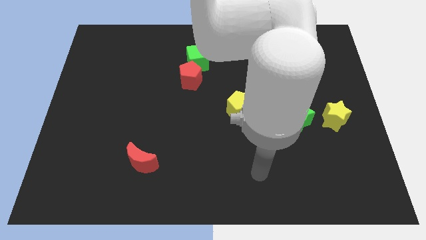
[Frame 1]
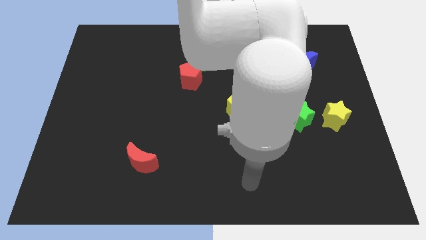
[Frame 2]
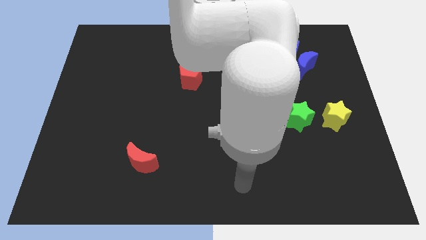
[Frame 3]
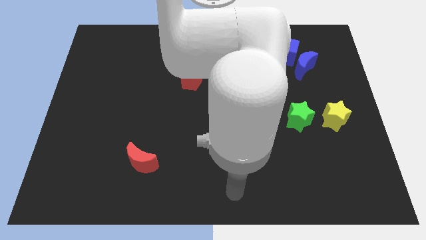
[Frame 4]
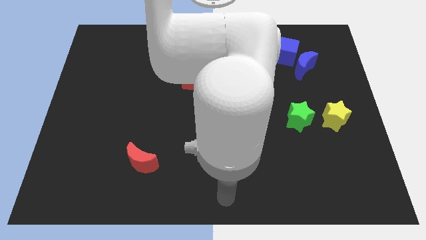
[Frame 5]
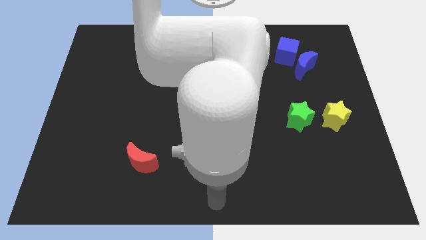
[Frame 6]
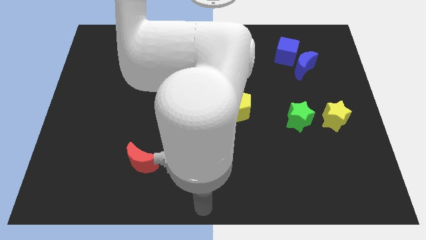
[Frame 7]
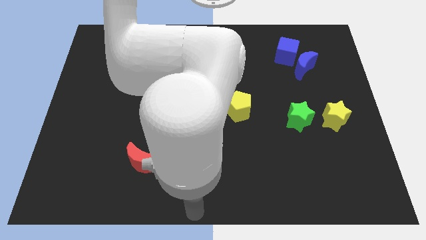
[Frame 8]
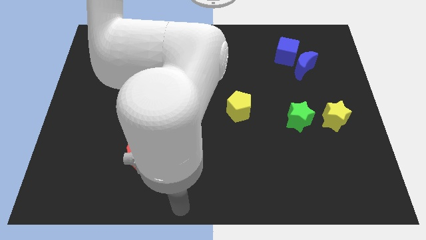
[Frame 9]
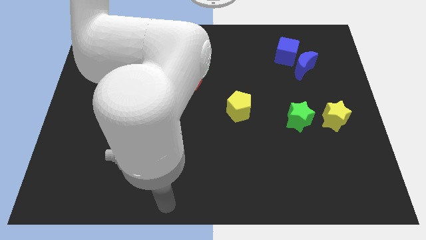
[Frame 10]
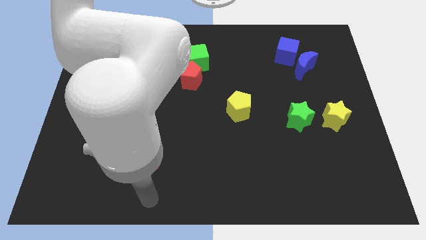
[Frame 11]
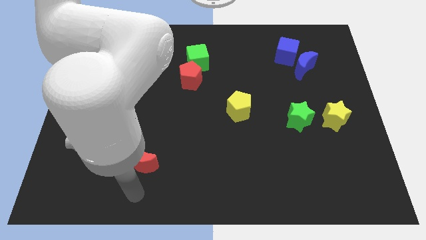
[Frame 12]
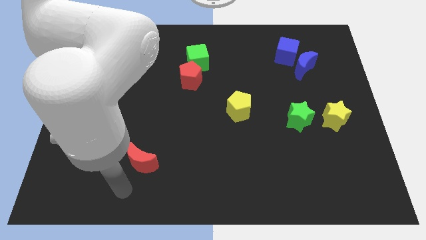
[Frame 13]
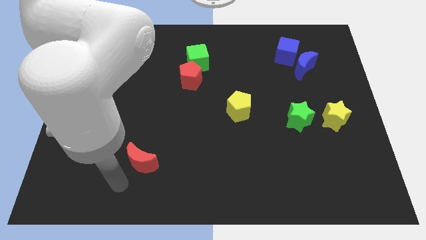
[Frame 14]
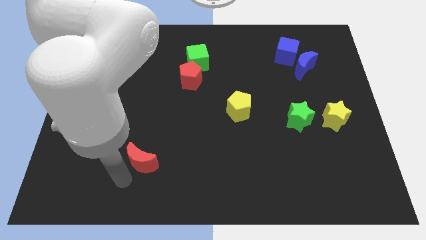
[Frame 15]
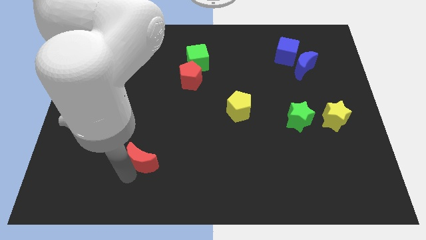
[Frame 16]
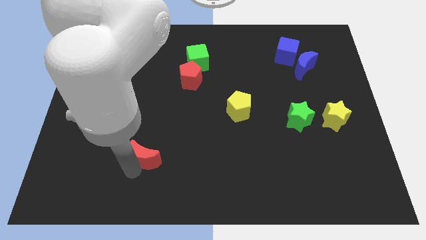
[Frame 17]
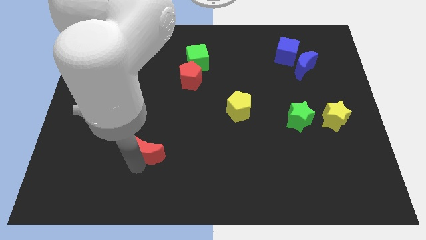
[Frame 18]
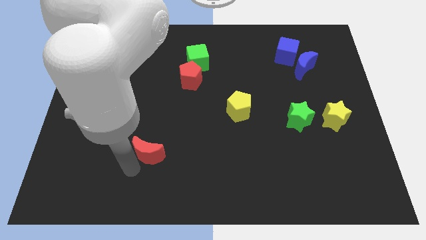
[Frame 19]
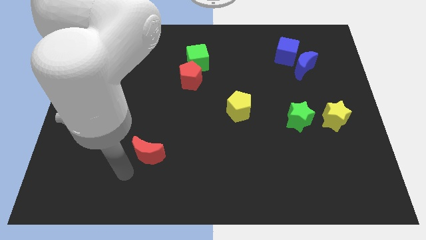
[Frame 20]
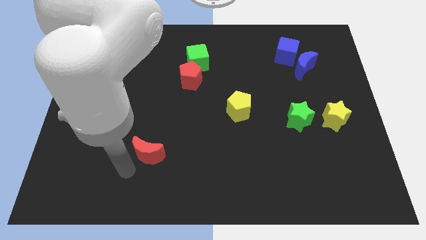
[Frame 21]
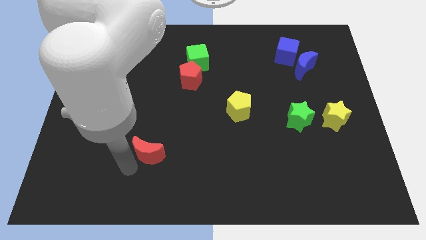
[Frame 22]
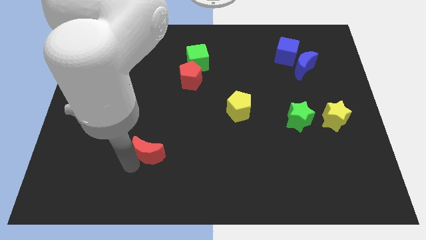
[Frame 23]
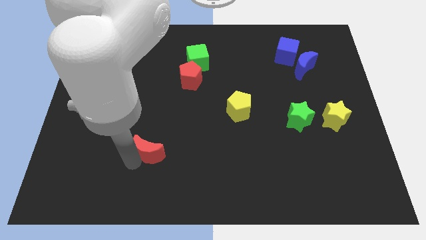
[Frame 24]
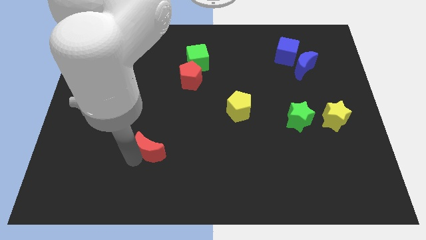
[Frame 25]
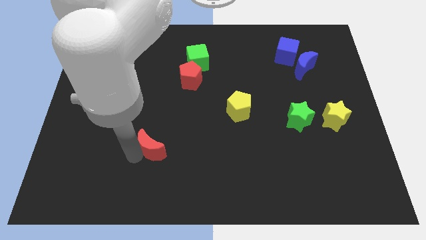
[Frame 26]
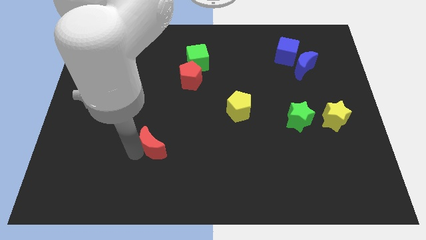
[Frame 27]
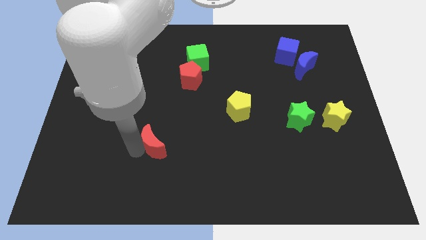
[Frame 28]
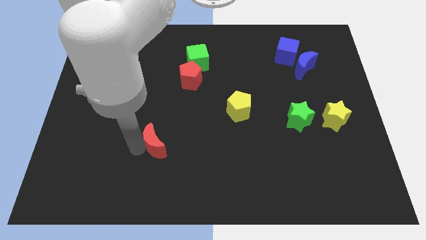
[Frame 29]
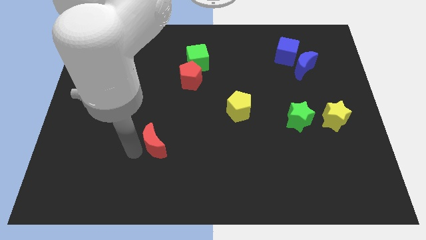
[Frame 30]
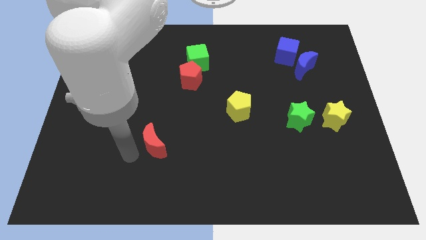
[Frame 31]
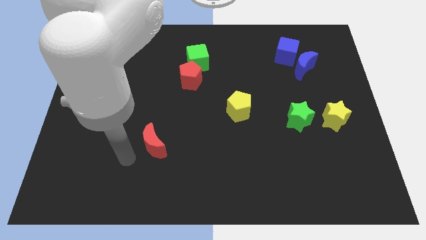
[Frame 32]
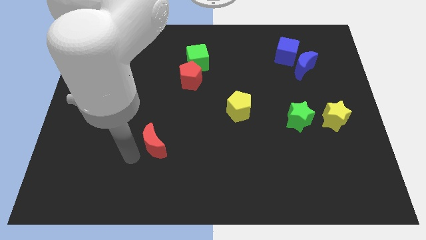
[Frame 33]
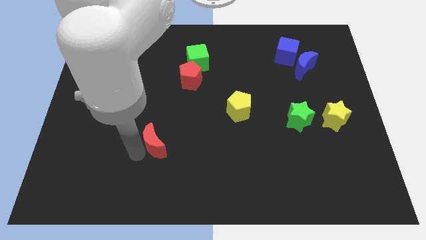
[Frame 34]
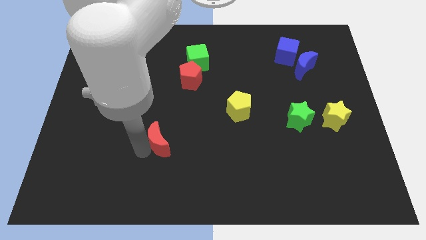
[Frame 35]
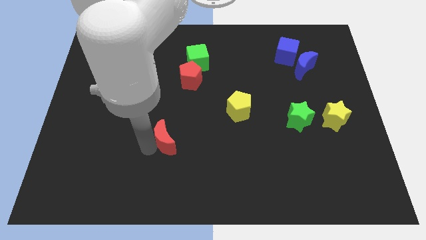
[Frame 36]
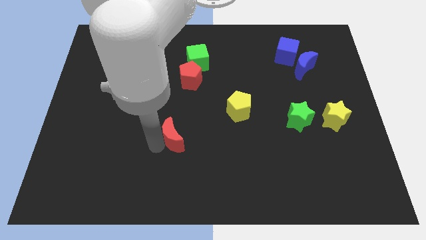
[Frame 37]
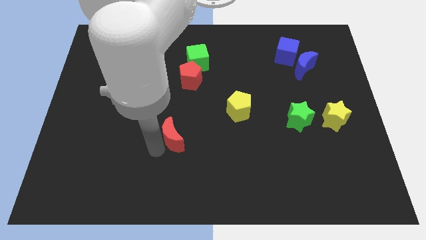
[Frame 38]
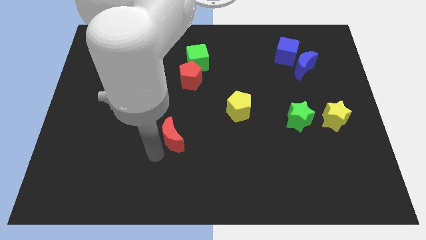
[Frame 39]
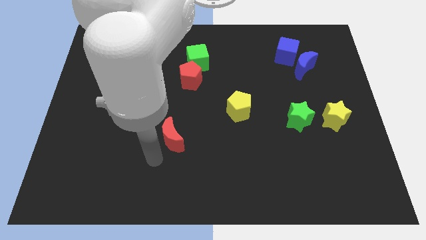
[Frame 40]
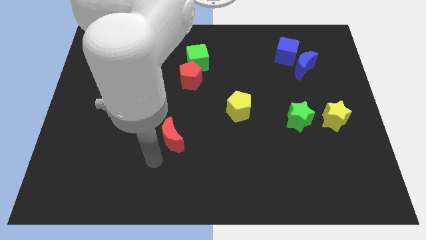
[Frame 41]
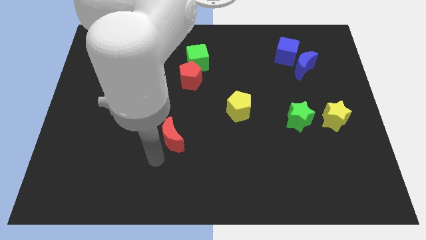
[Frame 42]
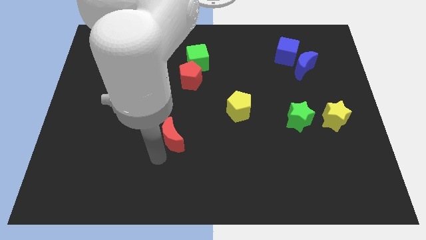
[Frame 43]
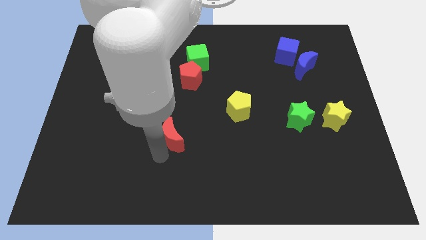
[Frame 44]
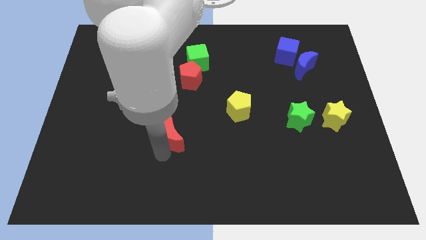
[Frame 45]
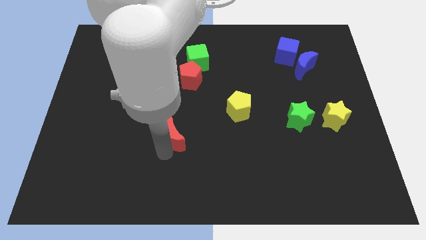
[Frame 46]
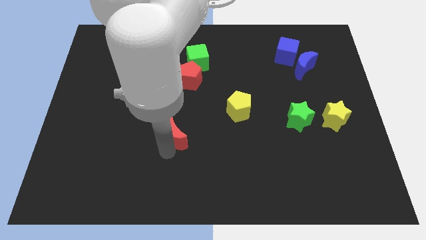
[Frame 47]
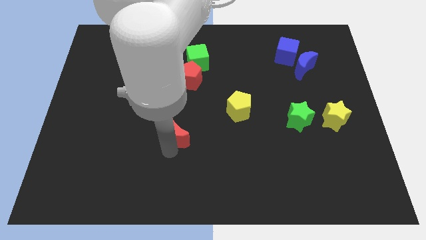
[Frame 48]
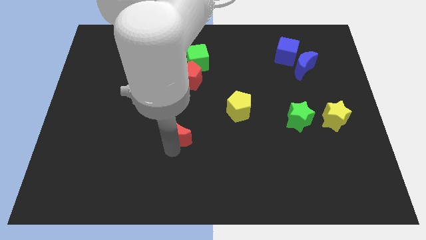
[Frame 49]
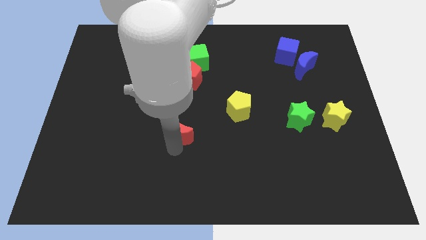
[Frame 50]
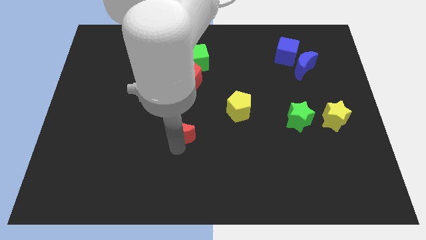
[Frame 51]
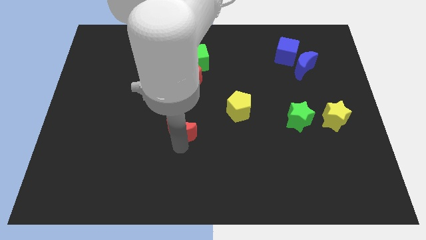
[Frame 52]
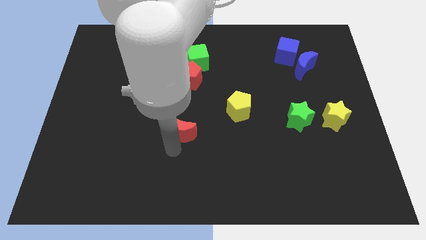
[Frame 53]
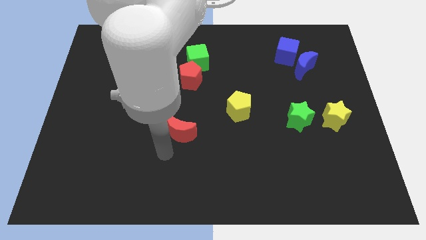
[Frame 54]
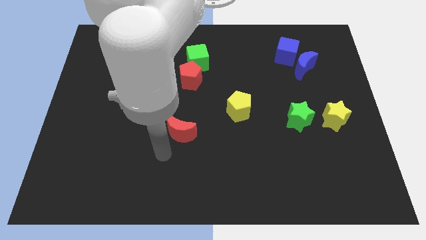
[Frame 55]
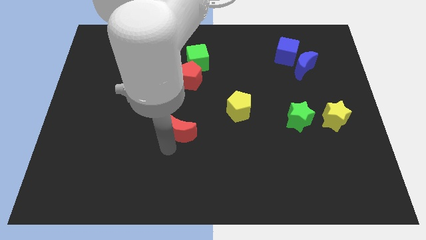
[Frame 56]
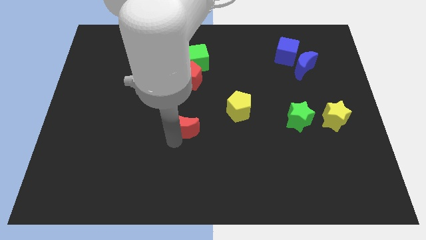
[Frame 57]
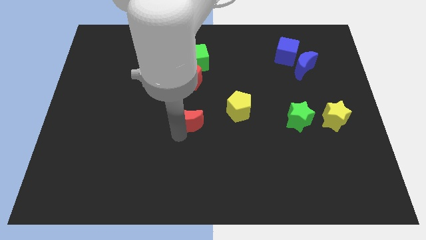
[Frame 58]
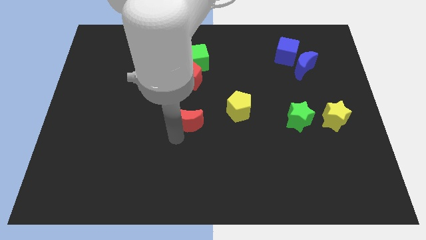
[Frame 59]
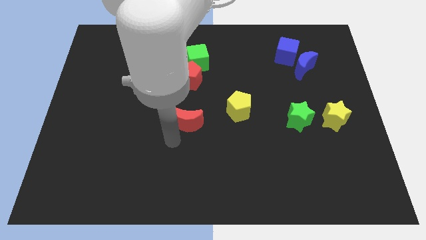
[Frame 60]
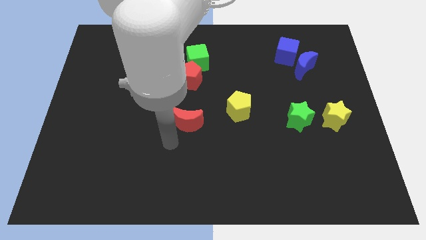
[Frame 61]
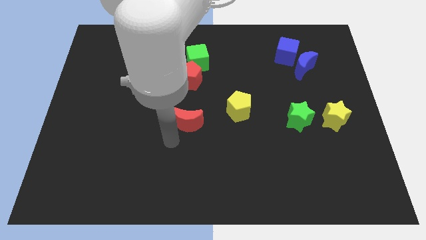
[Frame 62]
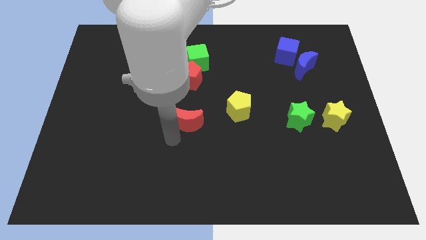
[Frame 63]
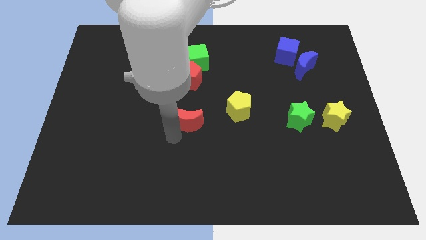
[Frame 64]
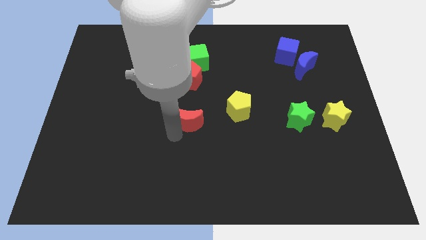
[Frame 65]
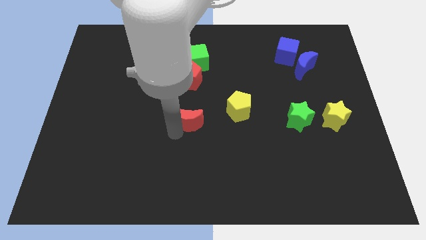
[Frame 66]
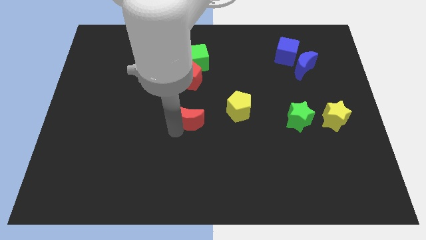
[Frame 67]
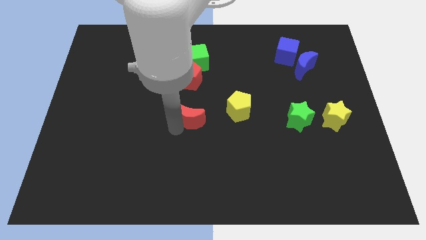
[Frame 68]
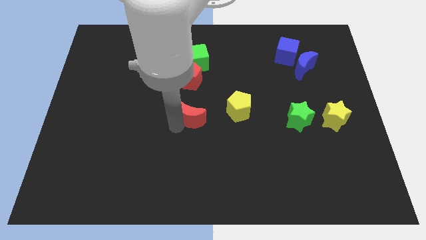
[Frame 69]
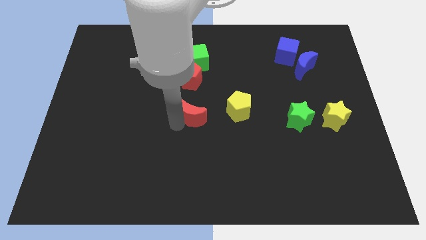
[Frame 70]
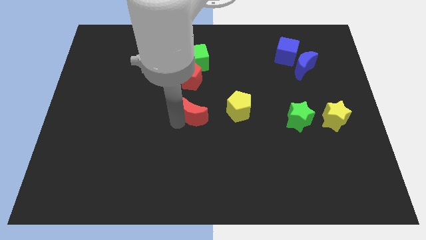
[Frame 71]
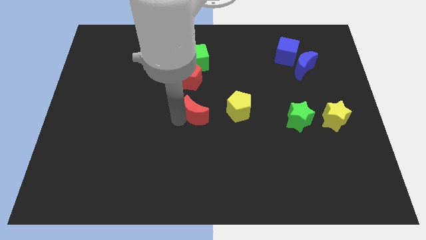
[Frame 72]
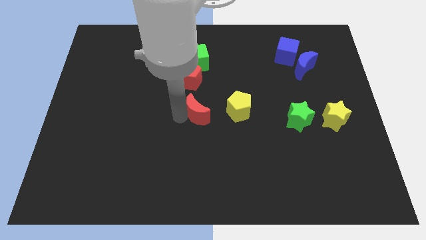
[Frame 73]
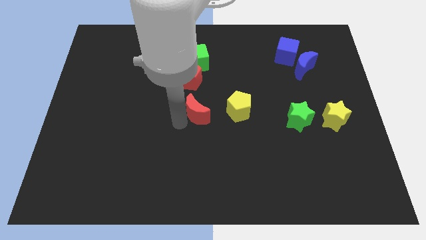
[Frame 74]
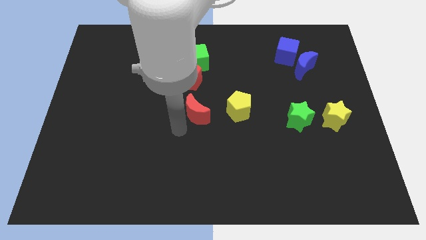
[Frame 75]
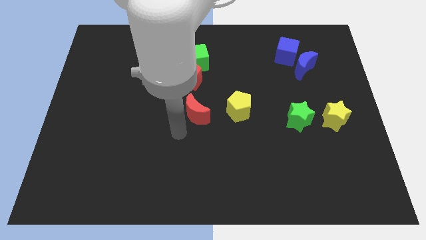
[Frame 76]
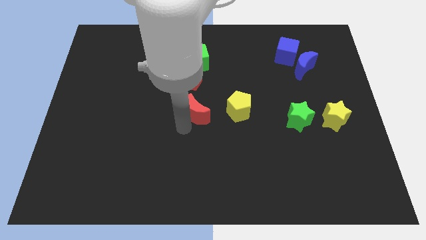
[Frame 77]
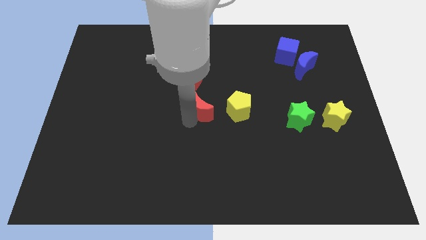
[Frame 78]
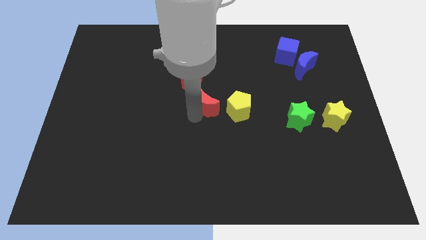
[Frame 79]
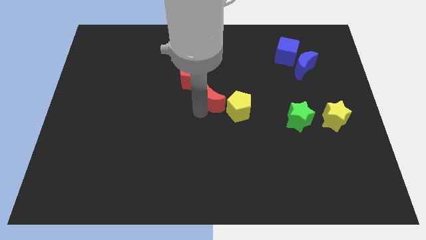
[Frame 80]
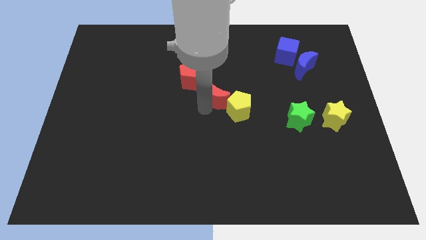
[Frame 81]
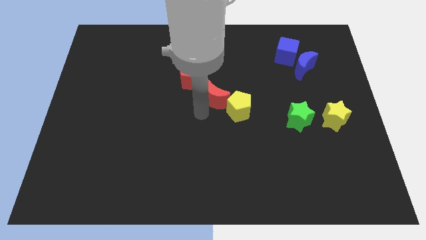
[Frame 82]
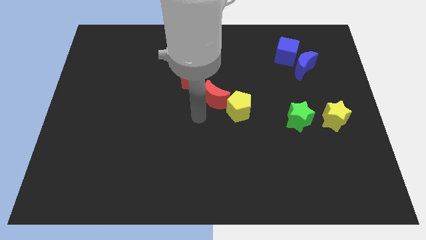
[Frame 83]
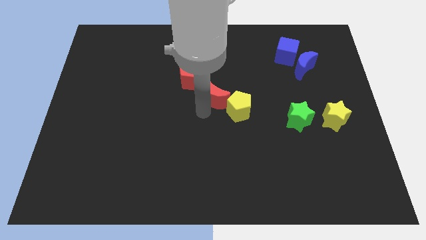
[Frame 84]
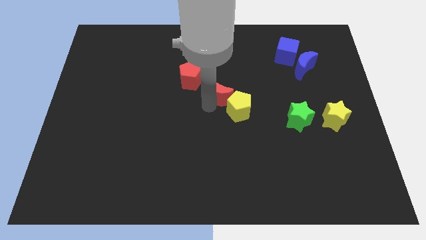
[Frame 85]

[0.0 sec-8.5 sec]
move the red moon above the yellow pentagon
